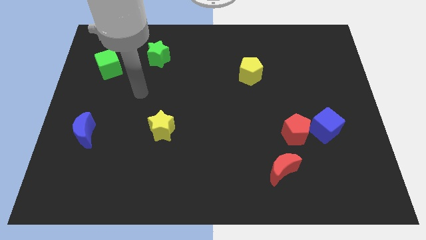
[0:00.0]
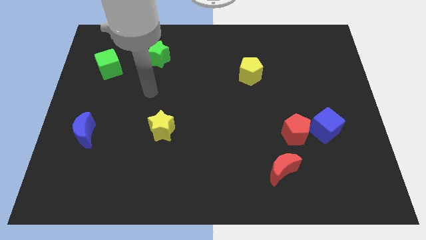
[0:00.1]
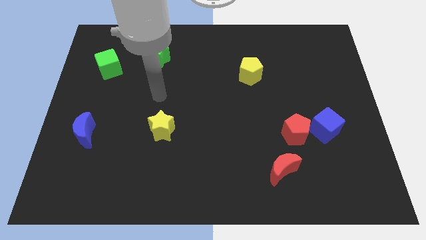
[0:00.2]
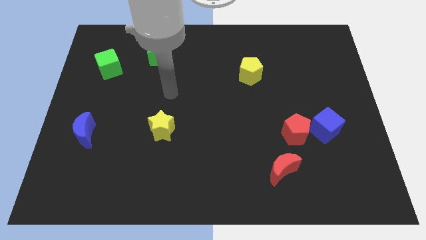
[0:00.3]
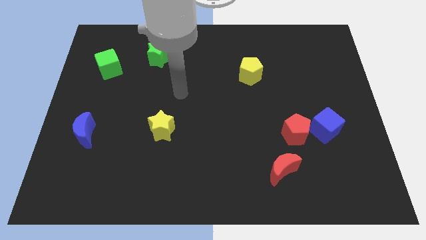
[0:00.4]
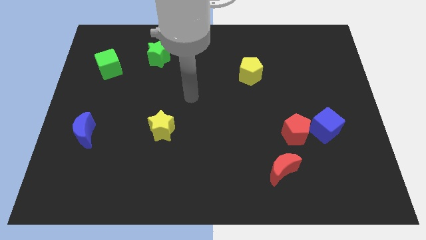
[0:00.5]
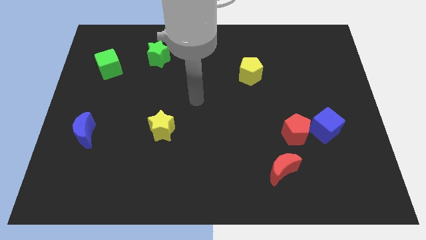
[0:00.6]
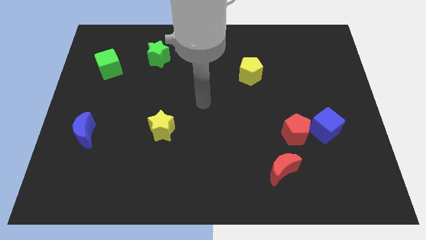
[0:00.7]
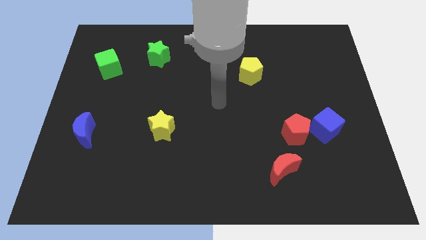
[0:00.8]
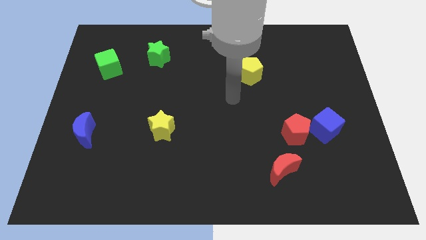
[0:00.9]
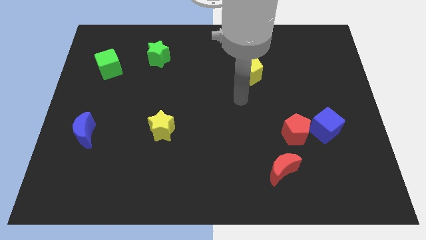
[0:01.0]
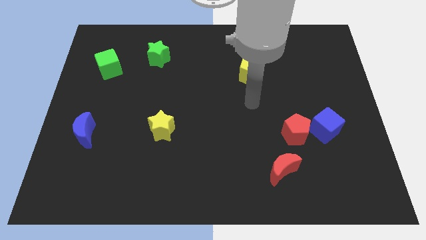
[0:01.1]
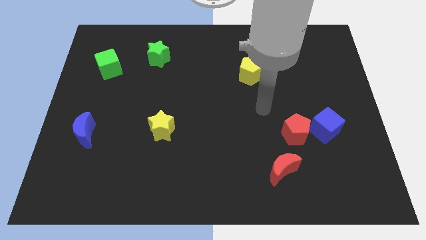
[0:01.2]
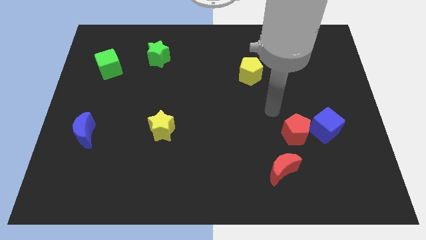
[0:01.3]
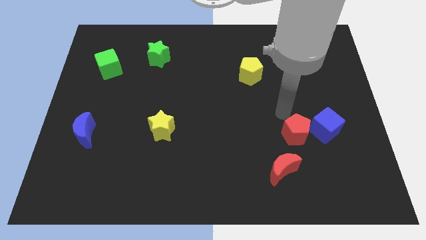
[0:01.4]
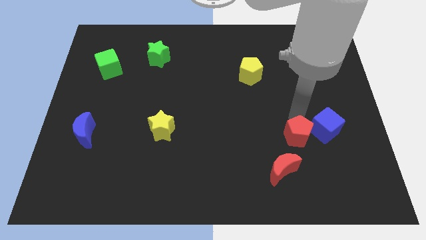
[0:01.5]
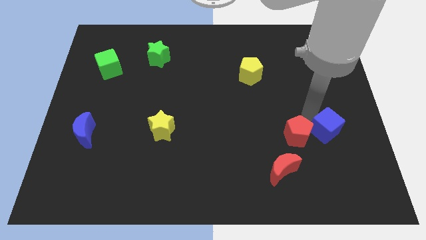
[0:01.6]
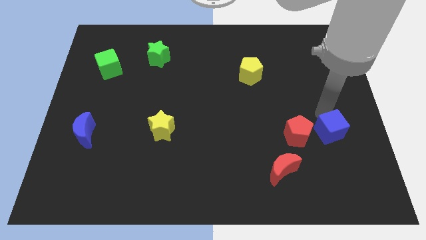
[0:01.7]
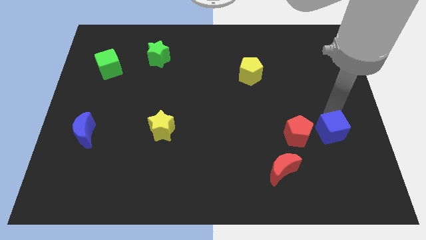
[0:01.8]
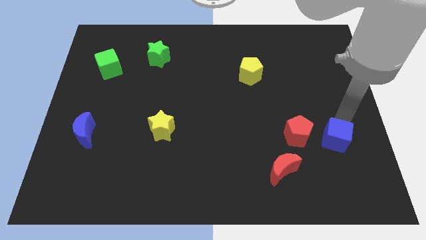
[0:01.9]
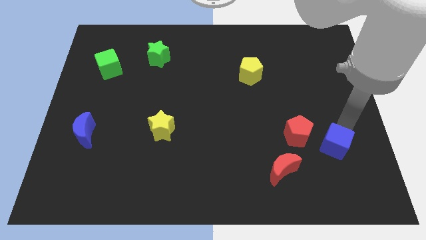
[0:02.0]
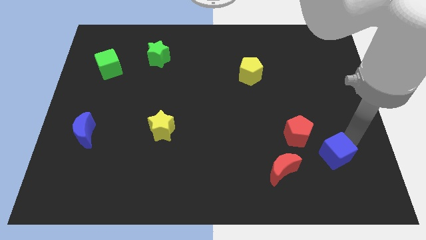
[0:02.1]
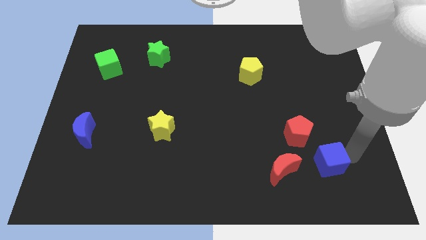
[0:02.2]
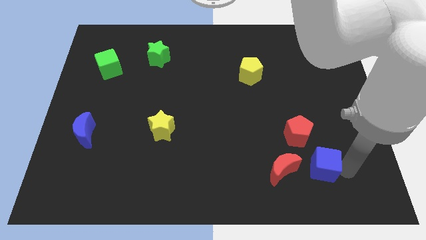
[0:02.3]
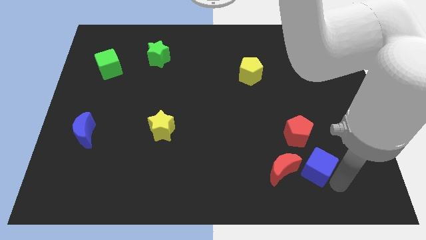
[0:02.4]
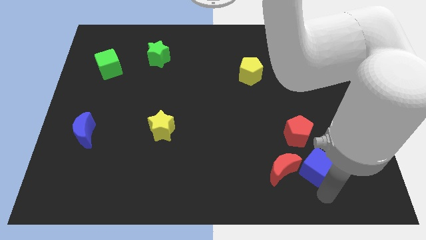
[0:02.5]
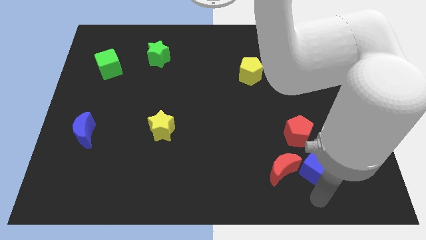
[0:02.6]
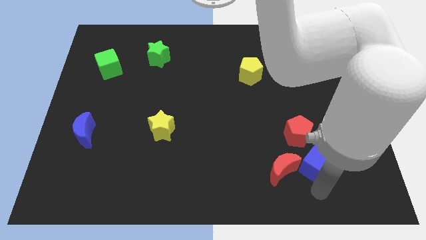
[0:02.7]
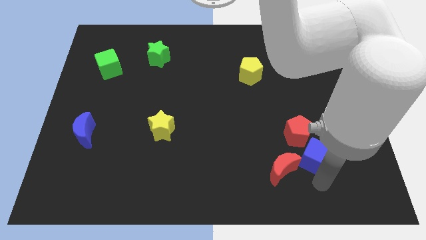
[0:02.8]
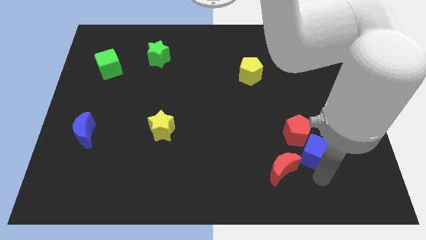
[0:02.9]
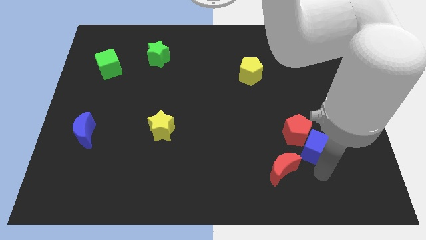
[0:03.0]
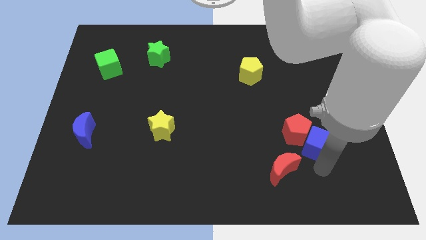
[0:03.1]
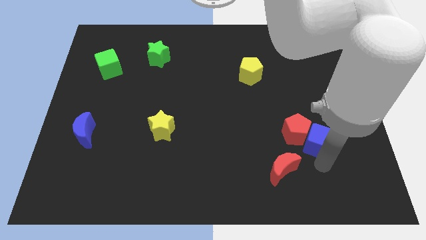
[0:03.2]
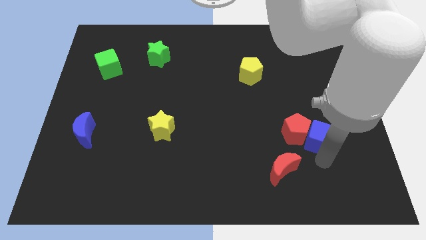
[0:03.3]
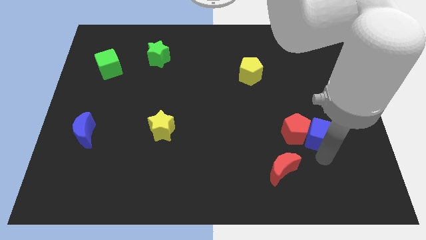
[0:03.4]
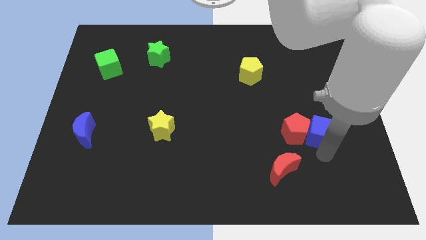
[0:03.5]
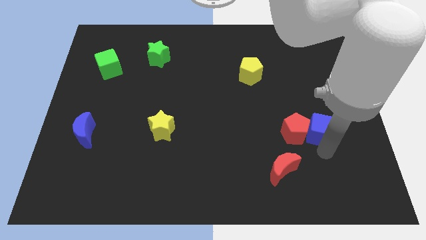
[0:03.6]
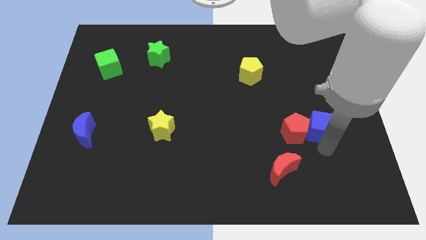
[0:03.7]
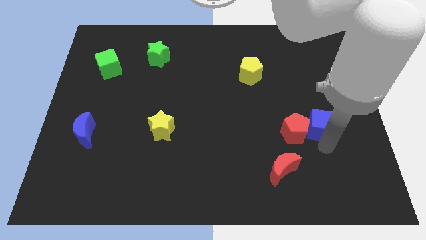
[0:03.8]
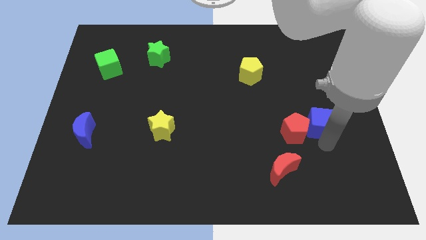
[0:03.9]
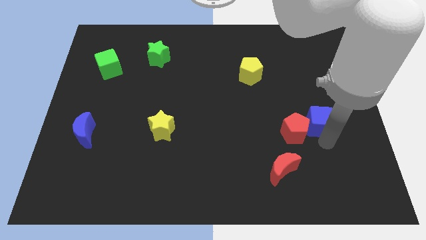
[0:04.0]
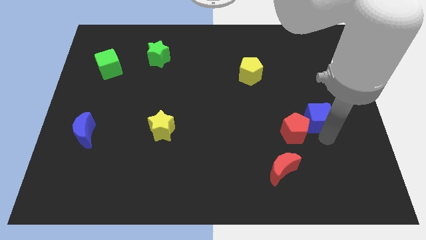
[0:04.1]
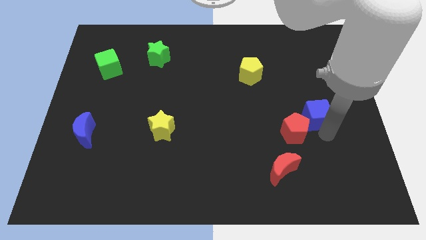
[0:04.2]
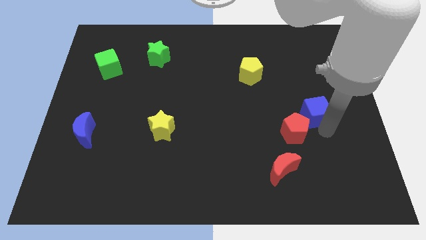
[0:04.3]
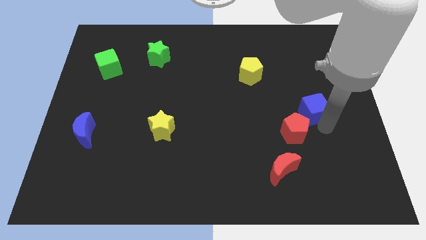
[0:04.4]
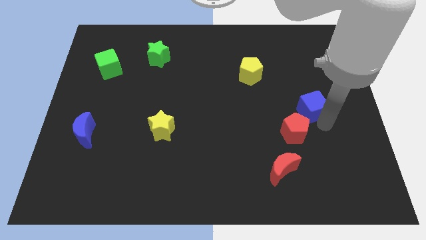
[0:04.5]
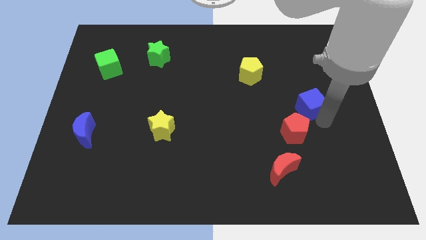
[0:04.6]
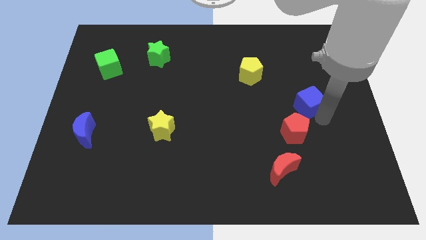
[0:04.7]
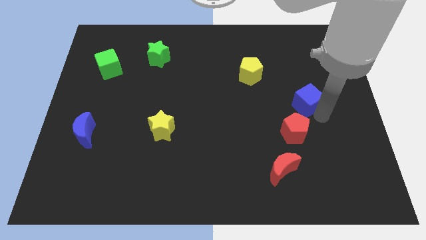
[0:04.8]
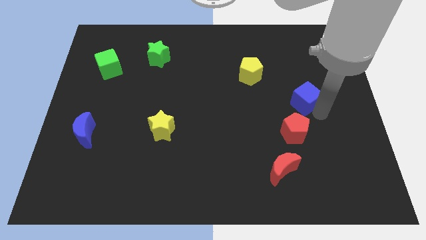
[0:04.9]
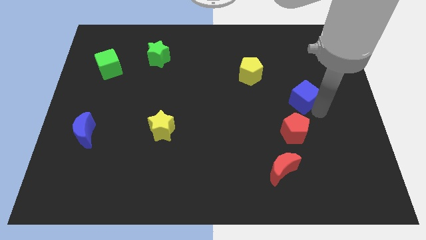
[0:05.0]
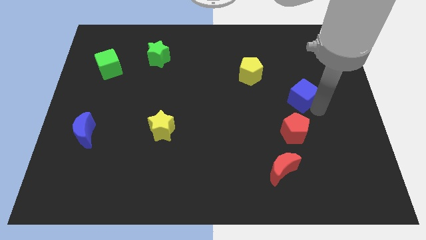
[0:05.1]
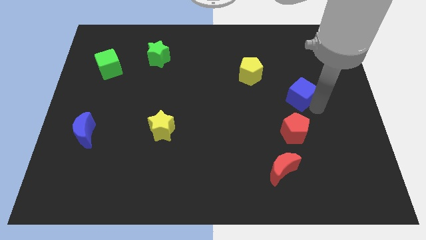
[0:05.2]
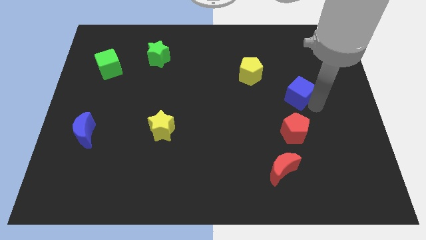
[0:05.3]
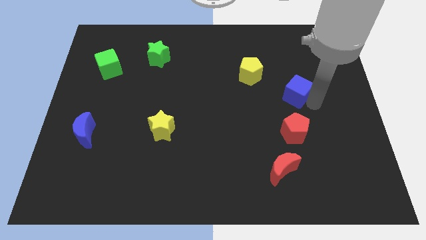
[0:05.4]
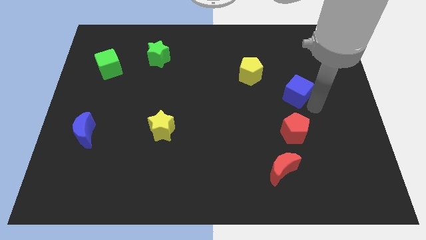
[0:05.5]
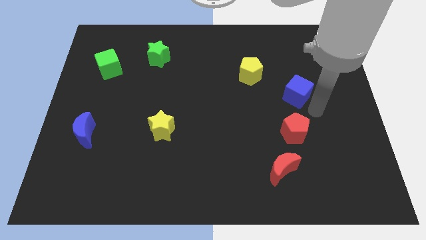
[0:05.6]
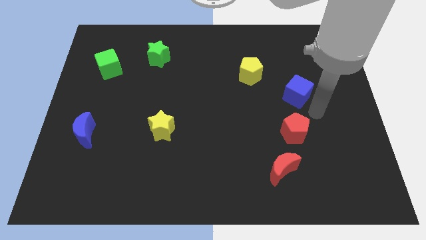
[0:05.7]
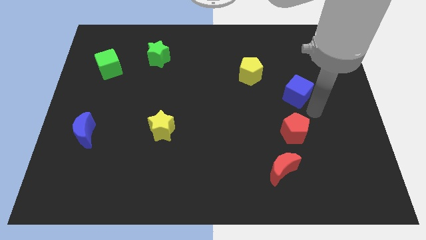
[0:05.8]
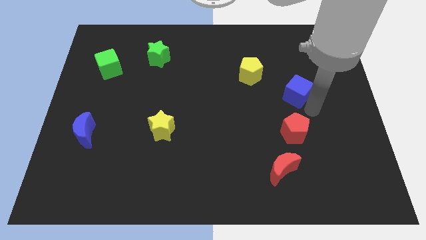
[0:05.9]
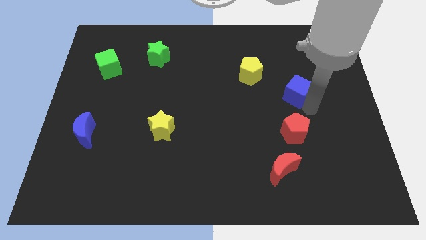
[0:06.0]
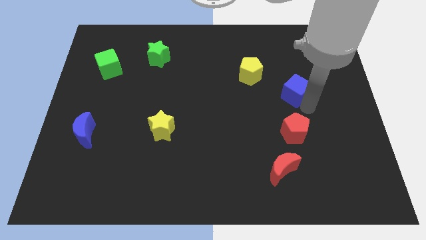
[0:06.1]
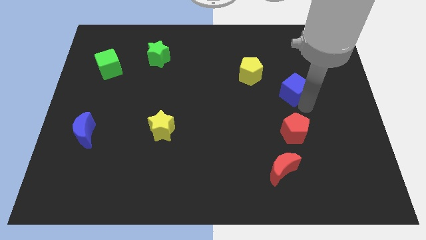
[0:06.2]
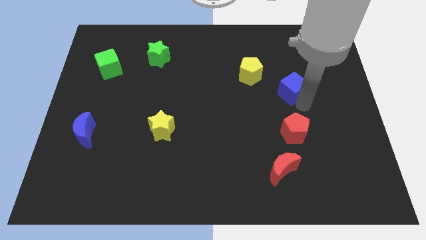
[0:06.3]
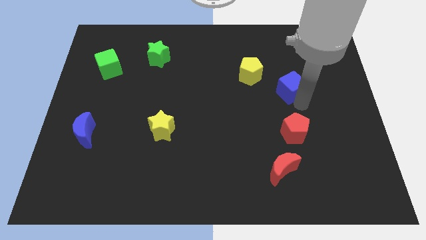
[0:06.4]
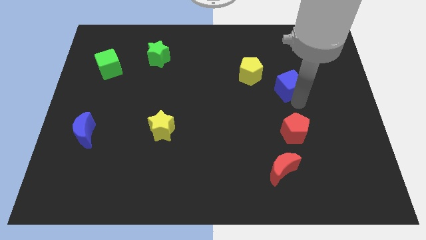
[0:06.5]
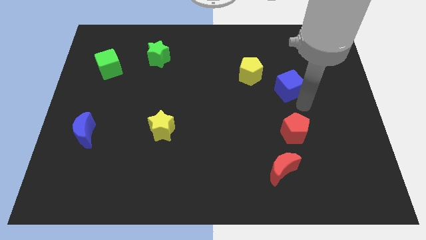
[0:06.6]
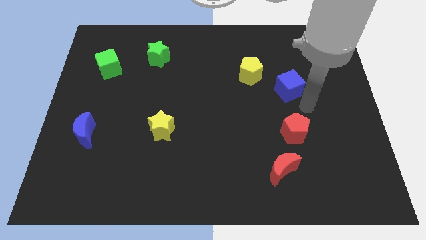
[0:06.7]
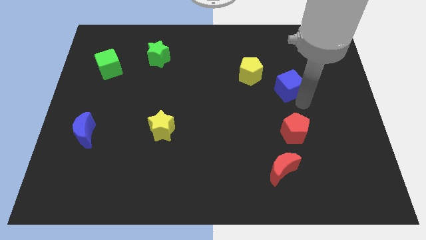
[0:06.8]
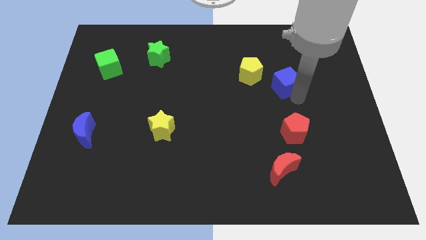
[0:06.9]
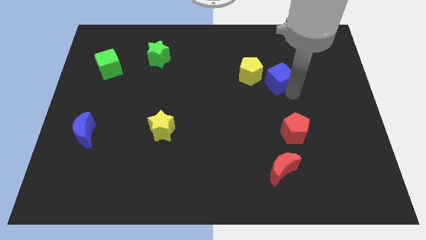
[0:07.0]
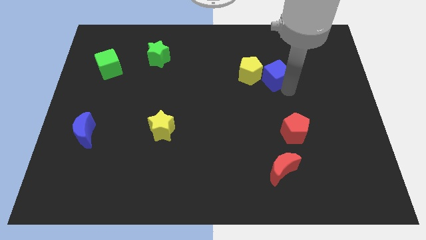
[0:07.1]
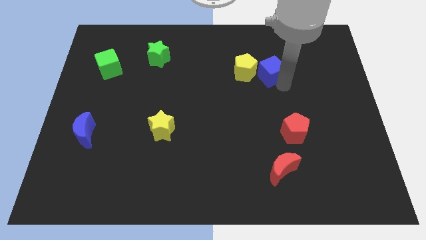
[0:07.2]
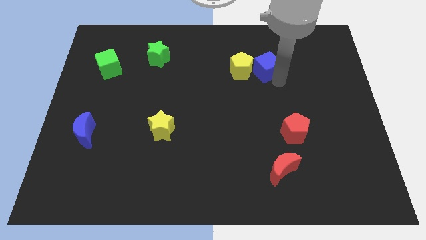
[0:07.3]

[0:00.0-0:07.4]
move the blue cube up and left

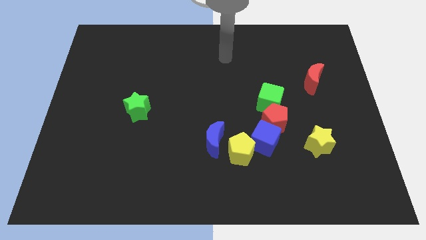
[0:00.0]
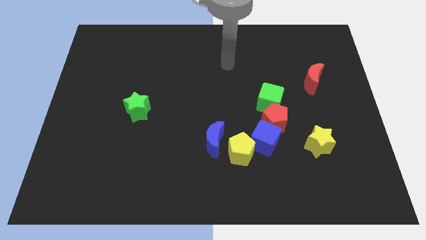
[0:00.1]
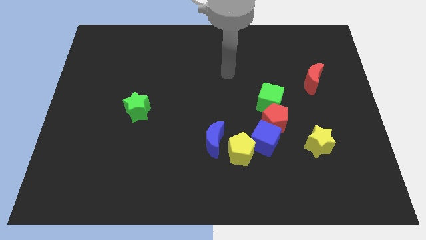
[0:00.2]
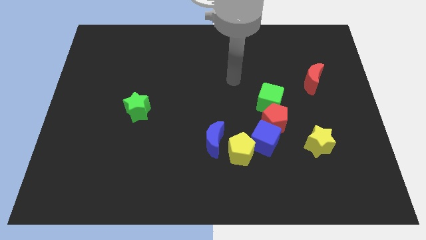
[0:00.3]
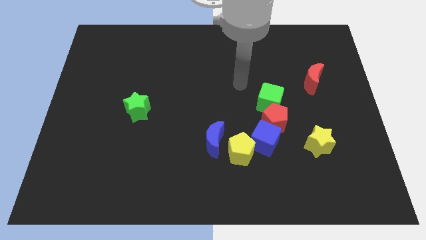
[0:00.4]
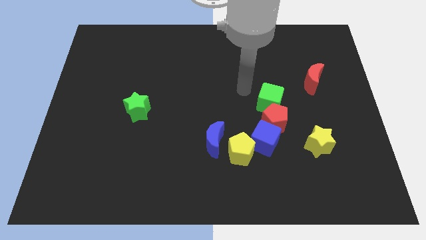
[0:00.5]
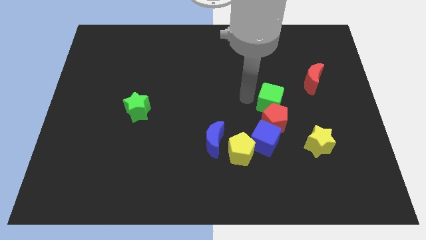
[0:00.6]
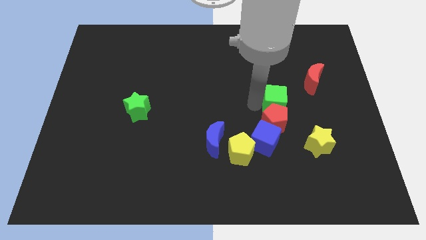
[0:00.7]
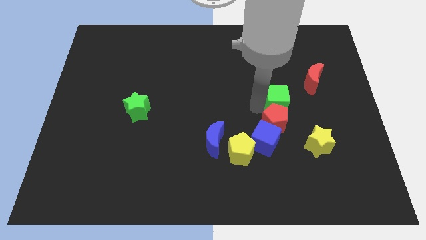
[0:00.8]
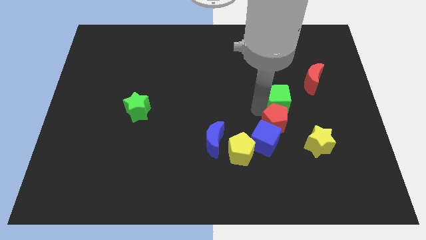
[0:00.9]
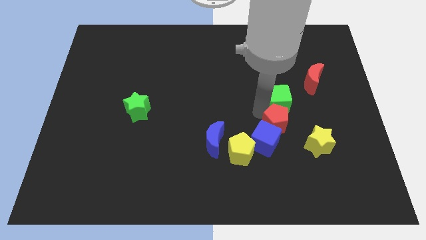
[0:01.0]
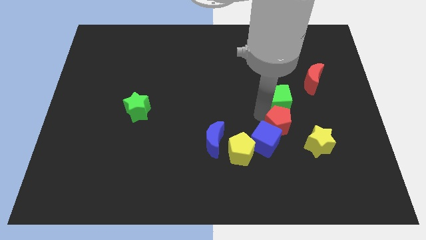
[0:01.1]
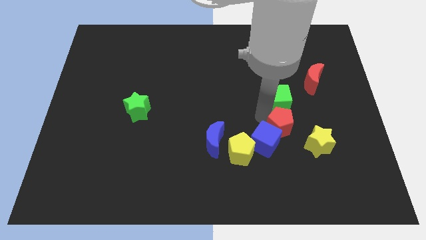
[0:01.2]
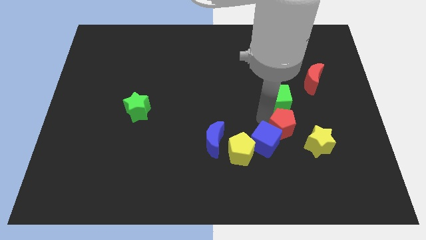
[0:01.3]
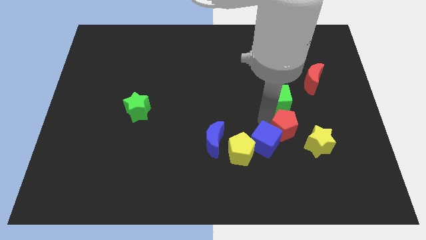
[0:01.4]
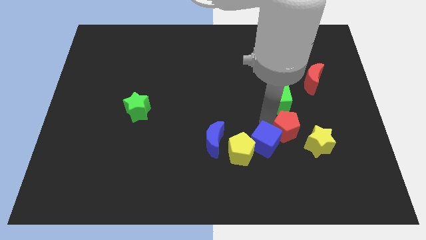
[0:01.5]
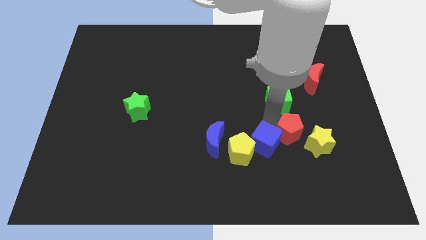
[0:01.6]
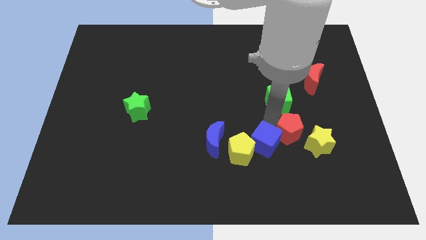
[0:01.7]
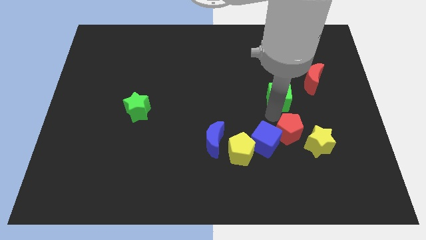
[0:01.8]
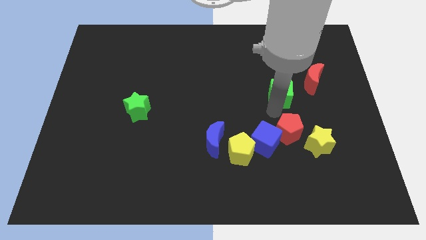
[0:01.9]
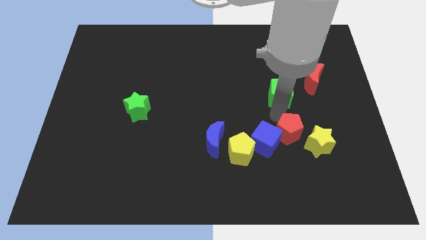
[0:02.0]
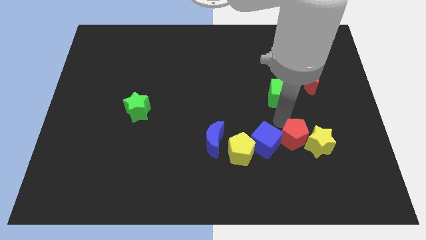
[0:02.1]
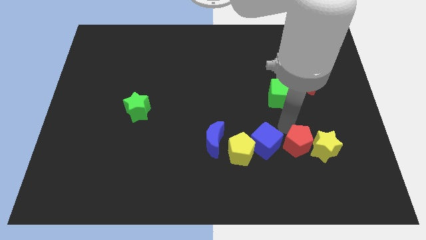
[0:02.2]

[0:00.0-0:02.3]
slide the red pentagon a little bit down and right
